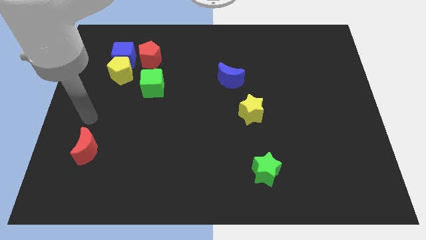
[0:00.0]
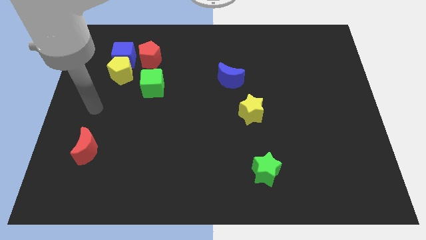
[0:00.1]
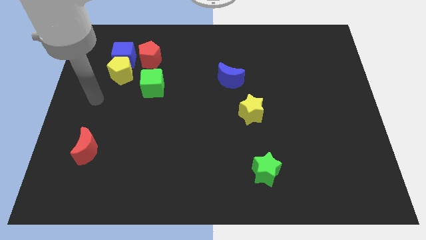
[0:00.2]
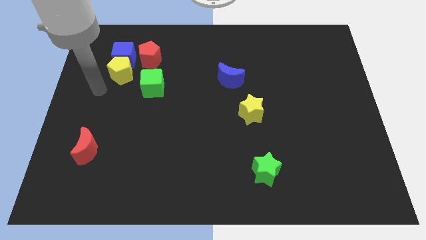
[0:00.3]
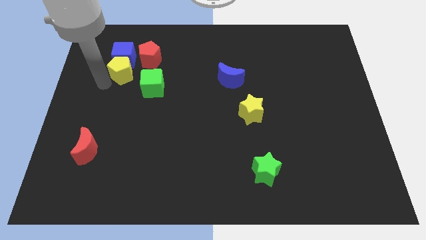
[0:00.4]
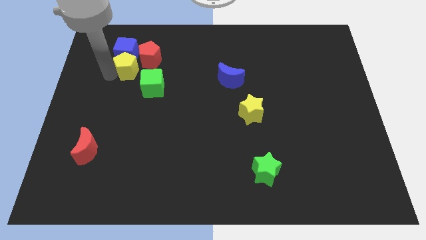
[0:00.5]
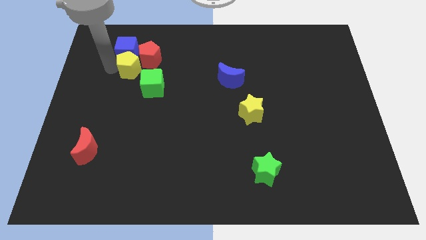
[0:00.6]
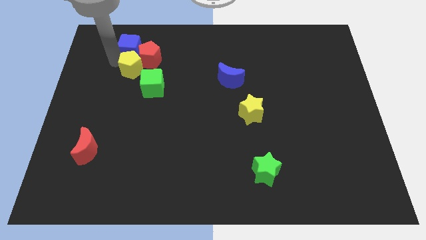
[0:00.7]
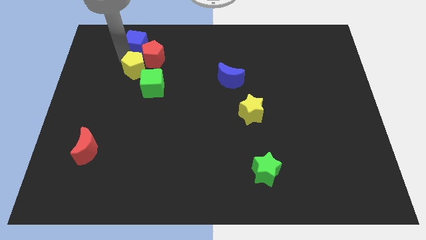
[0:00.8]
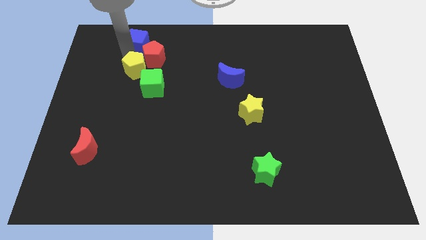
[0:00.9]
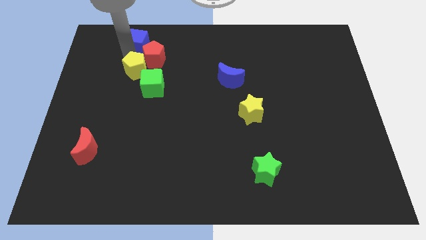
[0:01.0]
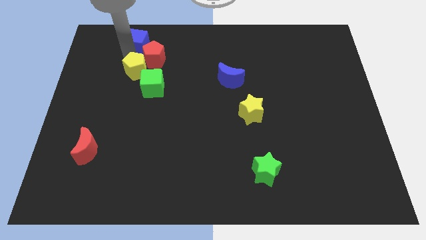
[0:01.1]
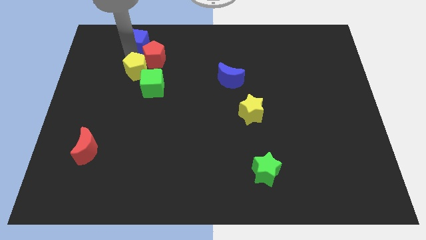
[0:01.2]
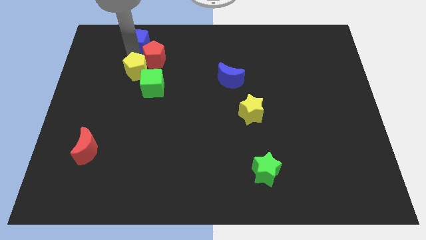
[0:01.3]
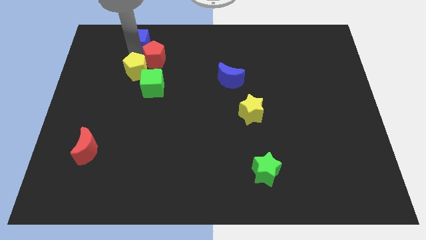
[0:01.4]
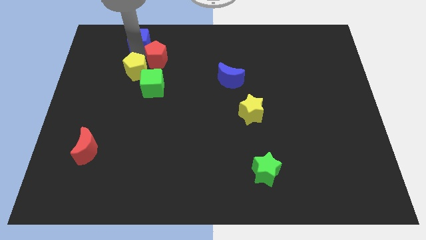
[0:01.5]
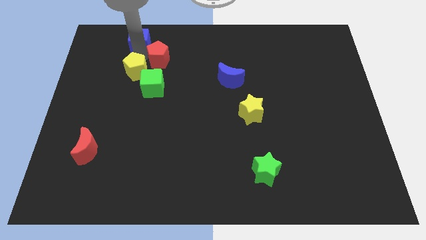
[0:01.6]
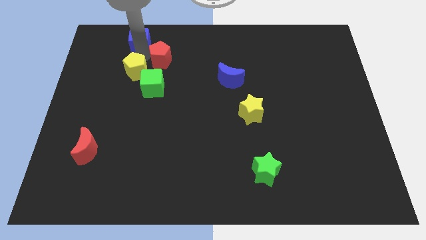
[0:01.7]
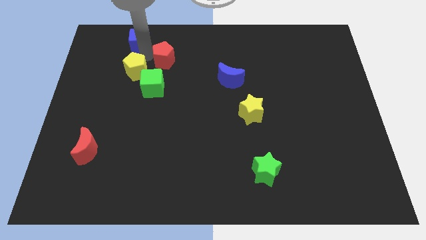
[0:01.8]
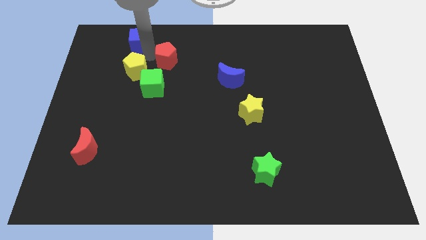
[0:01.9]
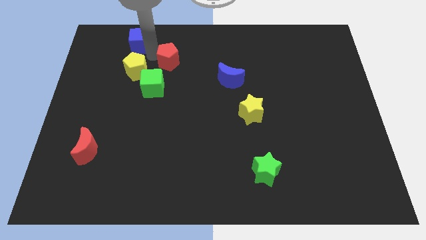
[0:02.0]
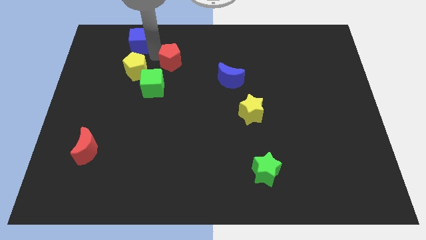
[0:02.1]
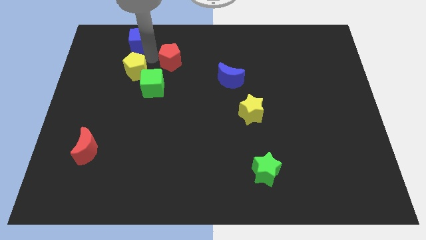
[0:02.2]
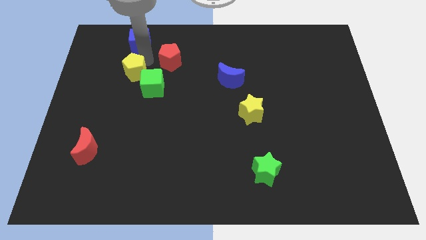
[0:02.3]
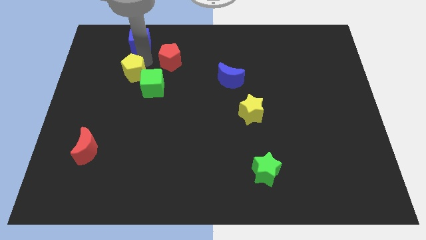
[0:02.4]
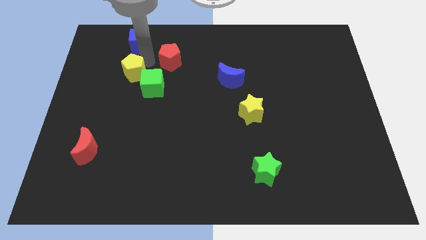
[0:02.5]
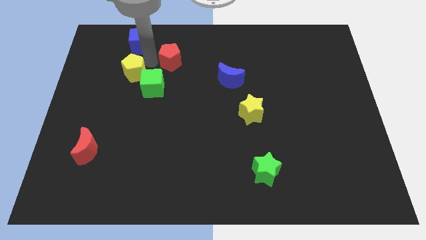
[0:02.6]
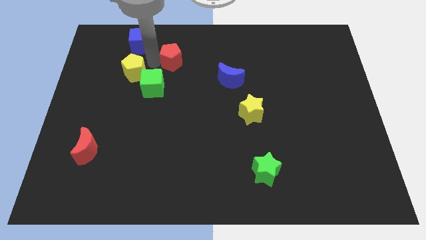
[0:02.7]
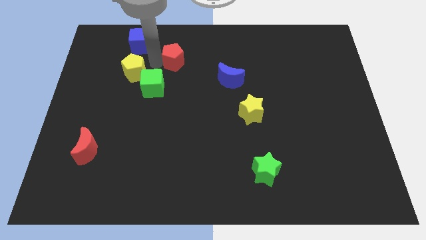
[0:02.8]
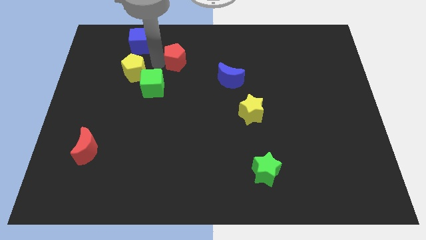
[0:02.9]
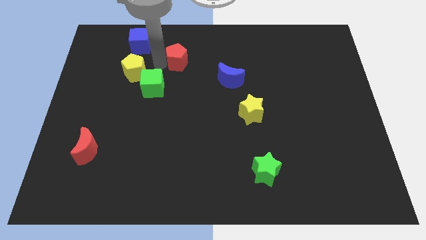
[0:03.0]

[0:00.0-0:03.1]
slide the red pentagon to the right somewhat

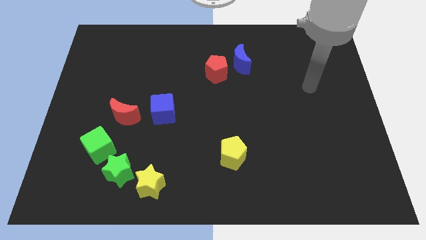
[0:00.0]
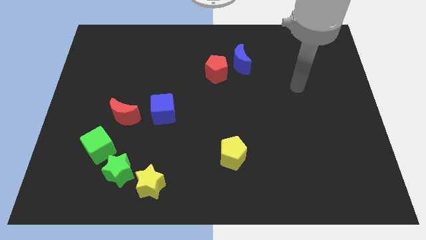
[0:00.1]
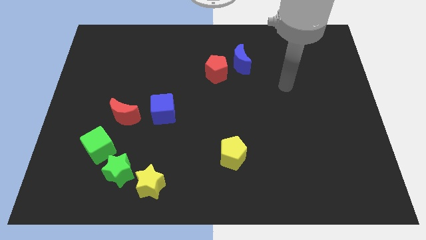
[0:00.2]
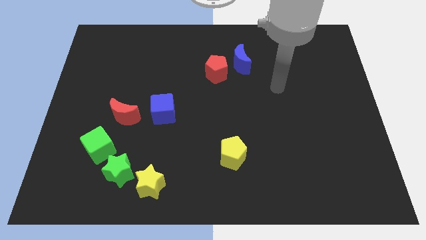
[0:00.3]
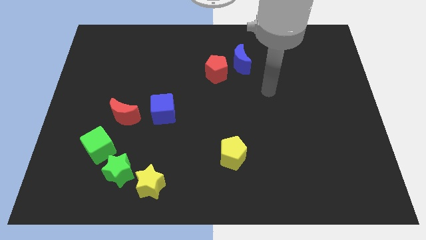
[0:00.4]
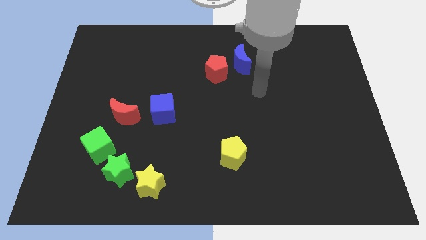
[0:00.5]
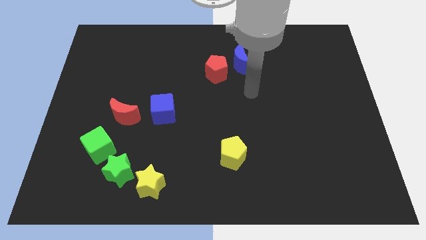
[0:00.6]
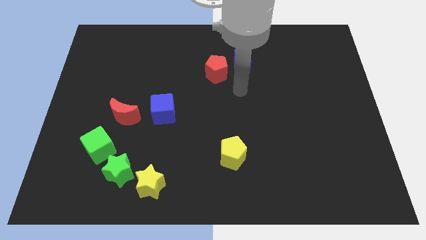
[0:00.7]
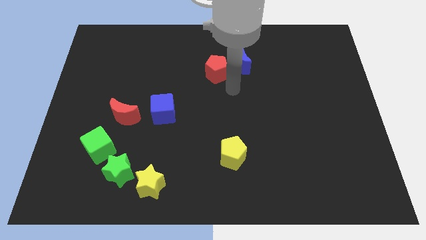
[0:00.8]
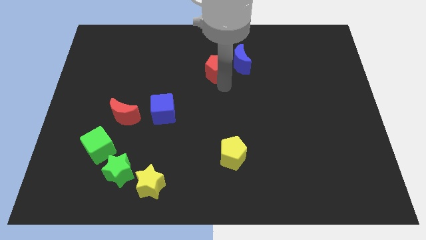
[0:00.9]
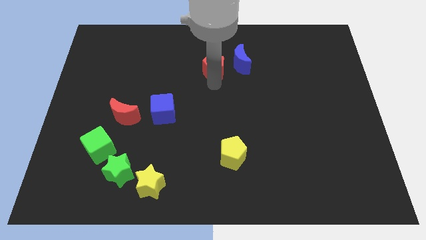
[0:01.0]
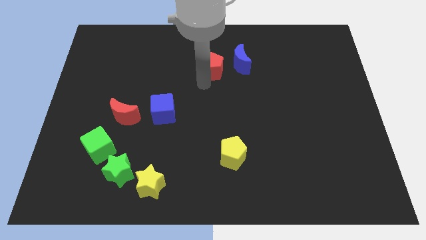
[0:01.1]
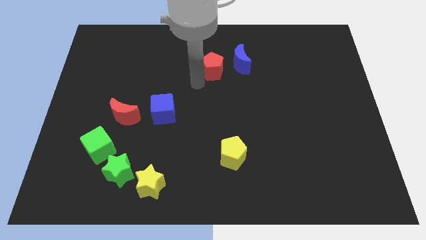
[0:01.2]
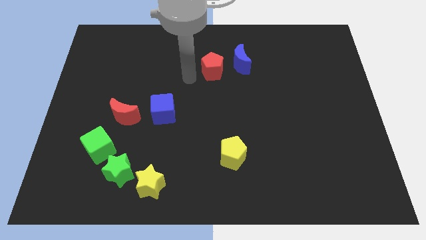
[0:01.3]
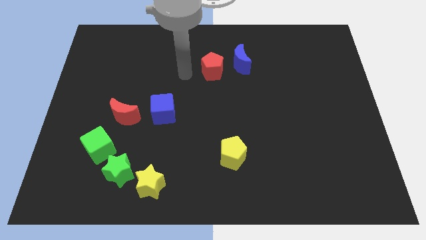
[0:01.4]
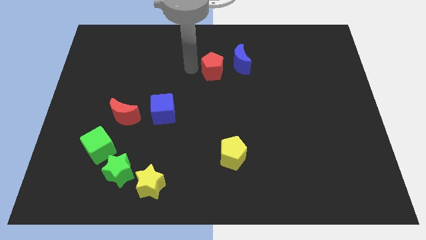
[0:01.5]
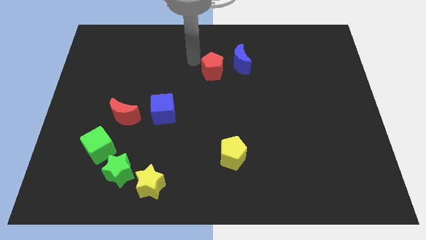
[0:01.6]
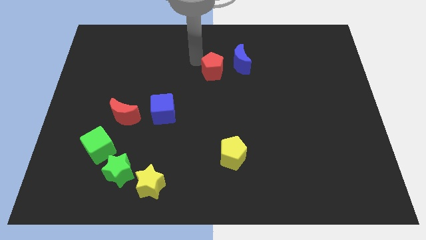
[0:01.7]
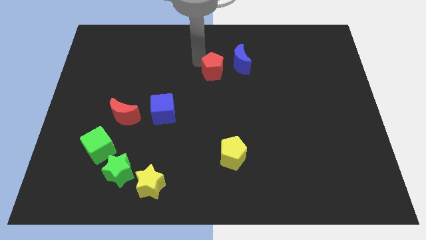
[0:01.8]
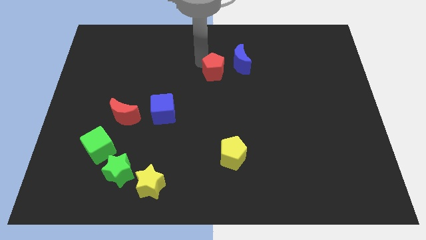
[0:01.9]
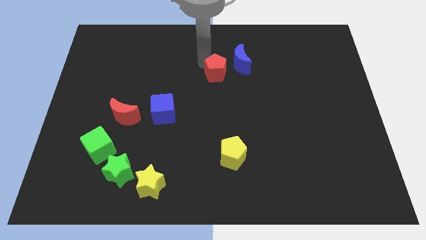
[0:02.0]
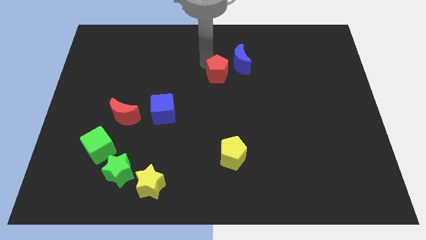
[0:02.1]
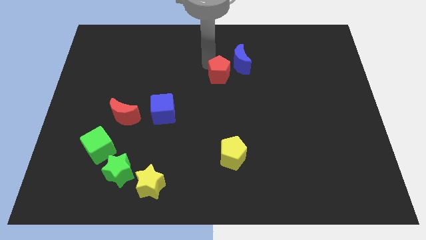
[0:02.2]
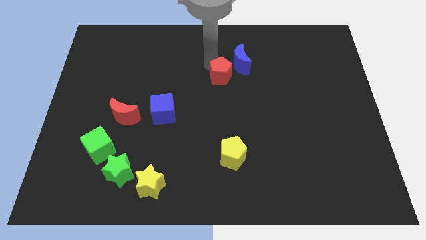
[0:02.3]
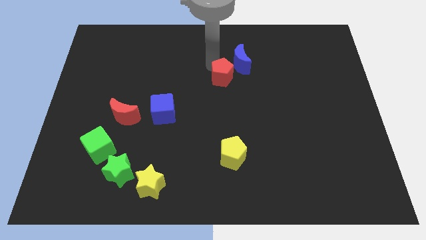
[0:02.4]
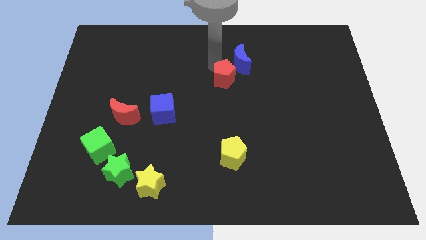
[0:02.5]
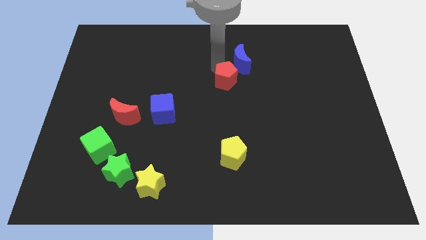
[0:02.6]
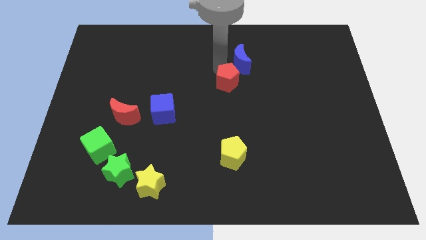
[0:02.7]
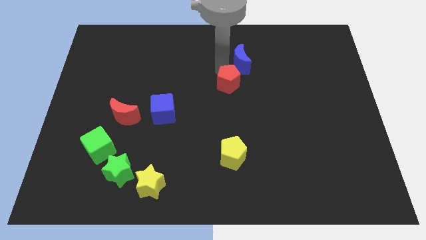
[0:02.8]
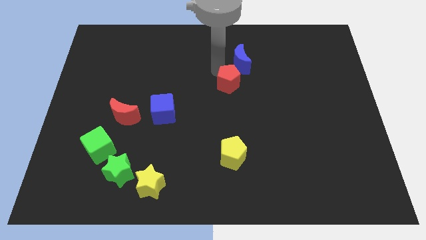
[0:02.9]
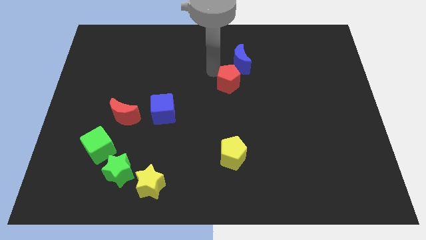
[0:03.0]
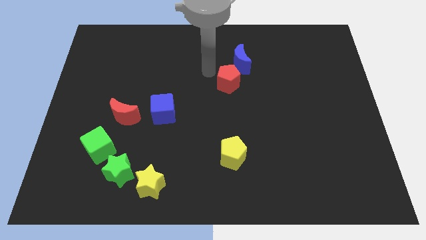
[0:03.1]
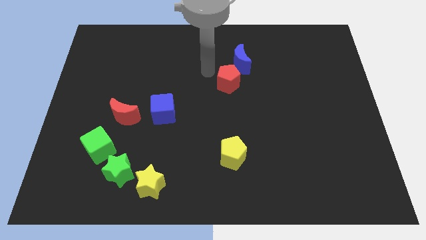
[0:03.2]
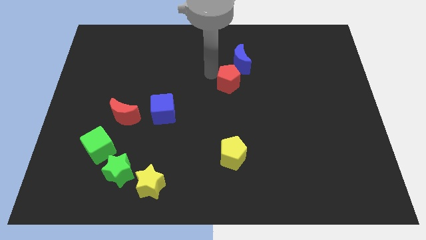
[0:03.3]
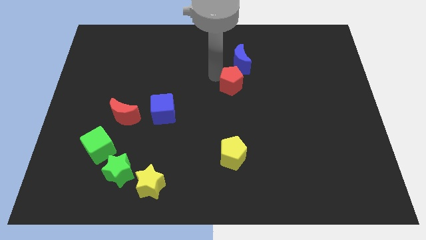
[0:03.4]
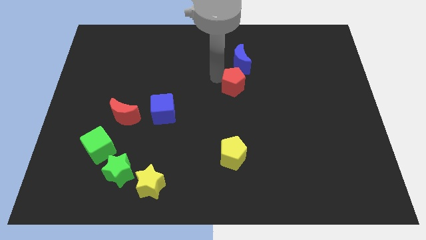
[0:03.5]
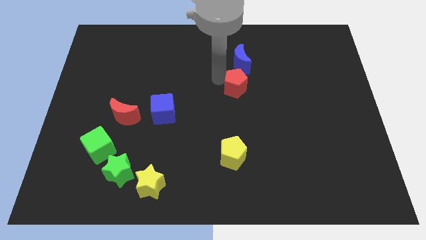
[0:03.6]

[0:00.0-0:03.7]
slide the red pentagon a bit diagonally down and to the right

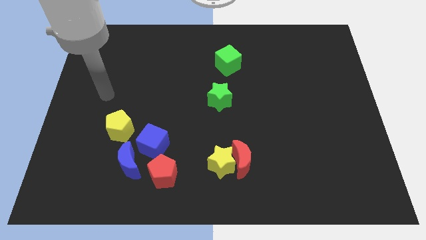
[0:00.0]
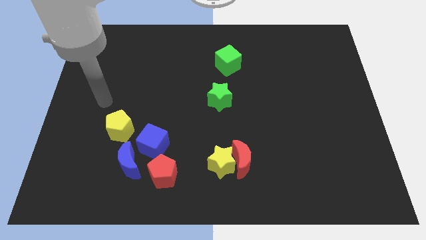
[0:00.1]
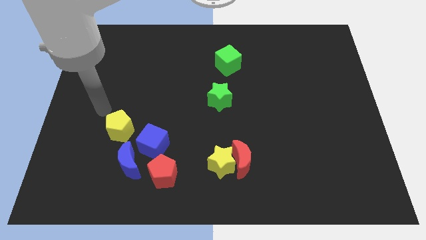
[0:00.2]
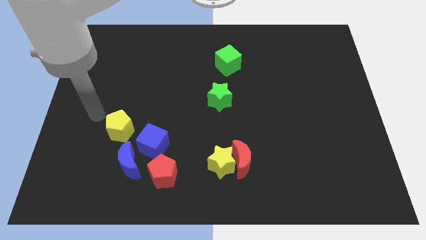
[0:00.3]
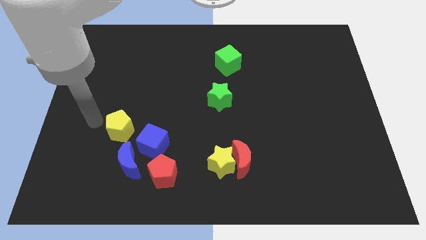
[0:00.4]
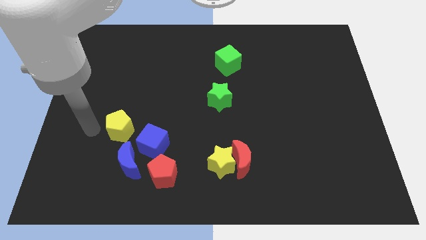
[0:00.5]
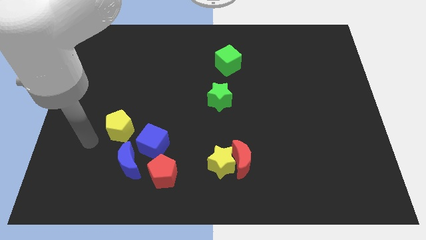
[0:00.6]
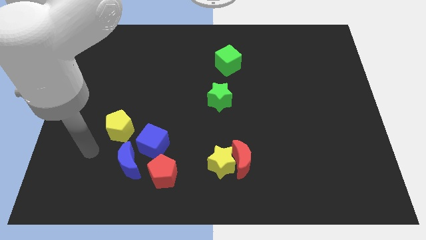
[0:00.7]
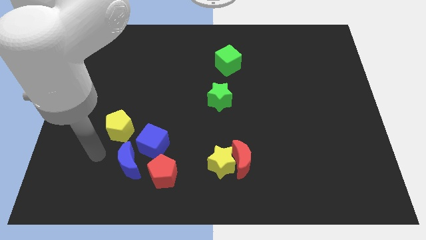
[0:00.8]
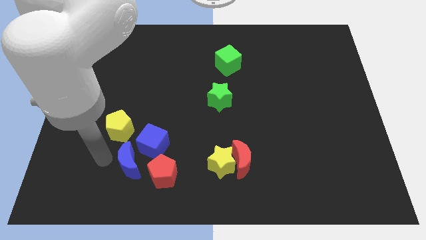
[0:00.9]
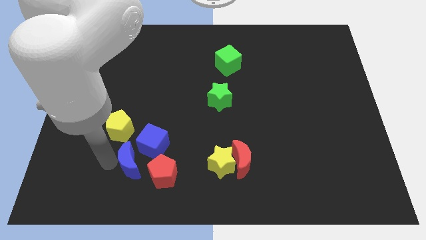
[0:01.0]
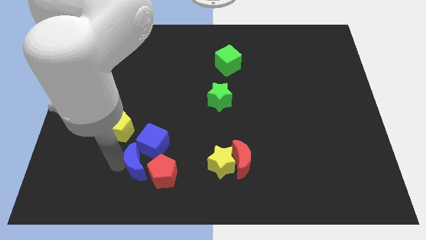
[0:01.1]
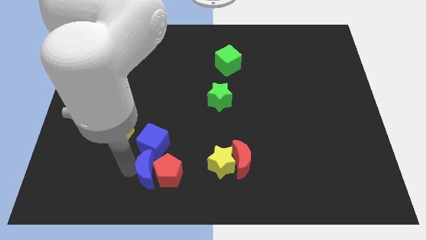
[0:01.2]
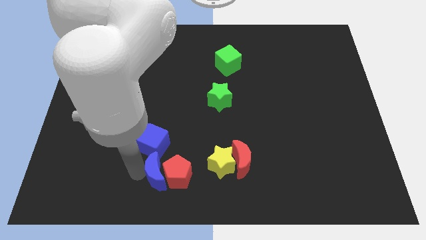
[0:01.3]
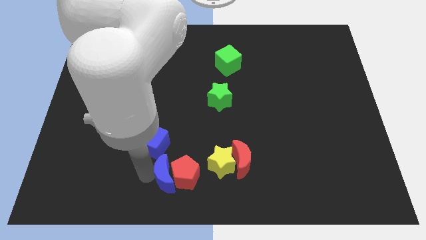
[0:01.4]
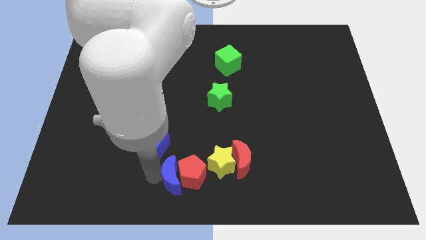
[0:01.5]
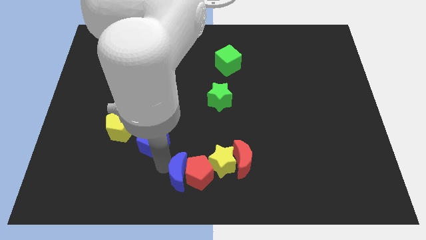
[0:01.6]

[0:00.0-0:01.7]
move the red pentagon to the right slightly
